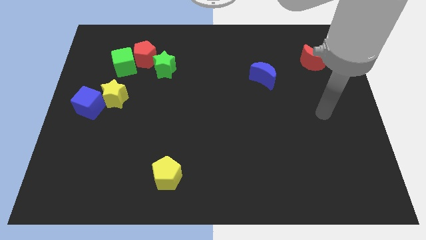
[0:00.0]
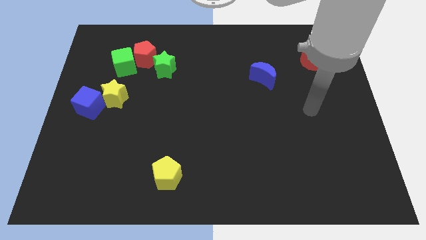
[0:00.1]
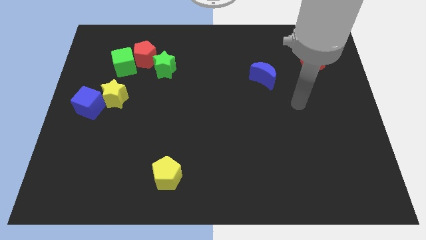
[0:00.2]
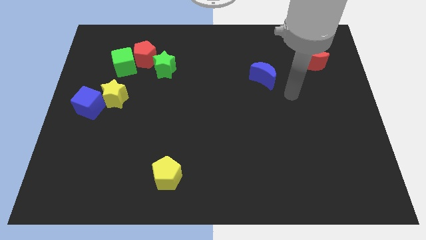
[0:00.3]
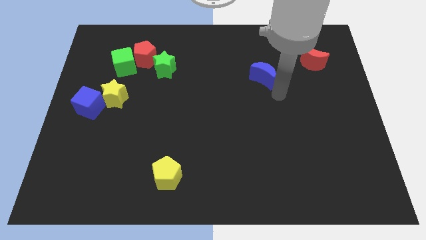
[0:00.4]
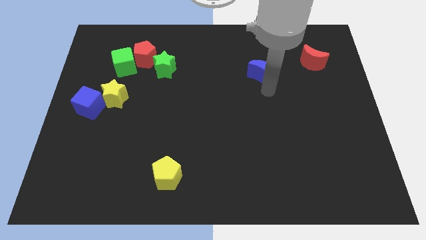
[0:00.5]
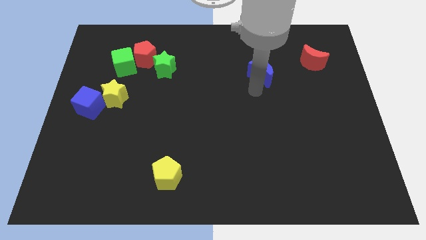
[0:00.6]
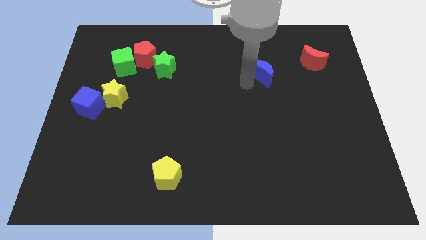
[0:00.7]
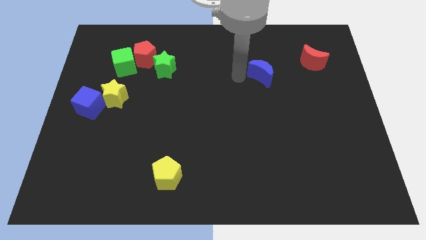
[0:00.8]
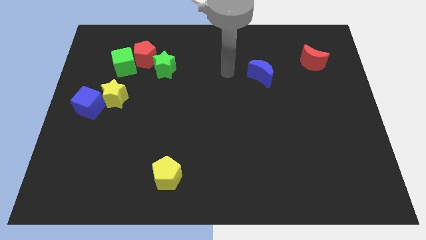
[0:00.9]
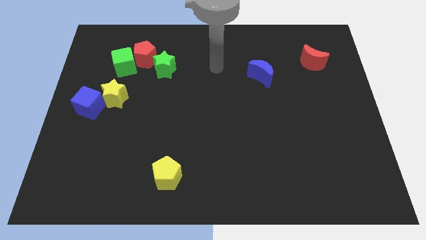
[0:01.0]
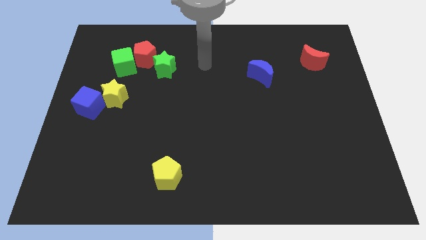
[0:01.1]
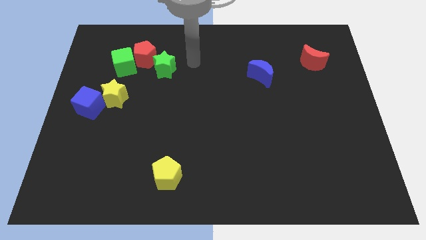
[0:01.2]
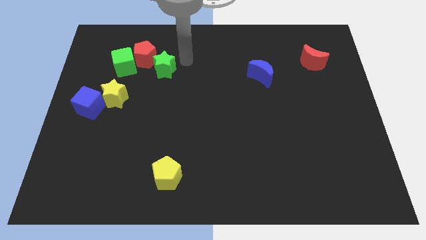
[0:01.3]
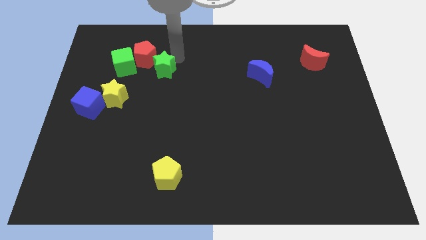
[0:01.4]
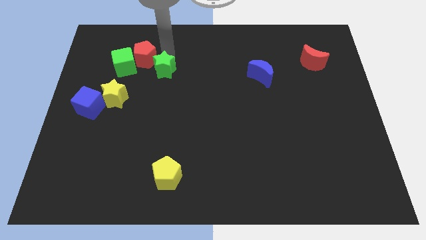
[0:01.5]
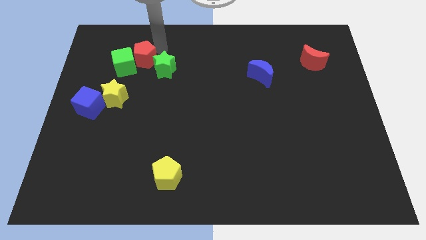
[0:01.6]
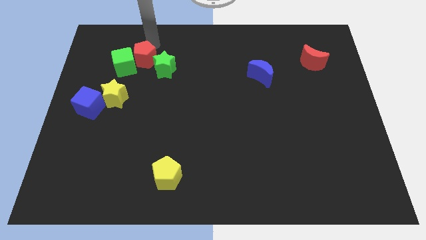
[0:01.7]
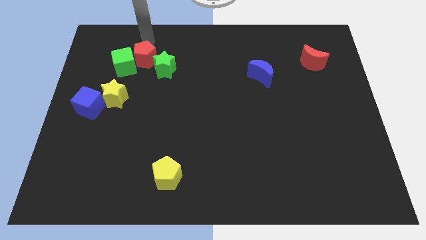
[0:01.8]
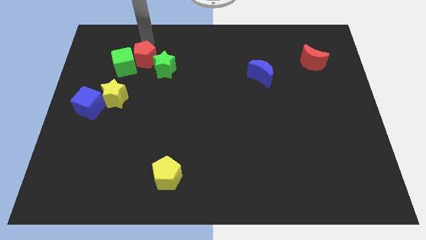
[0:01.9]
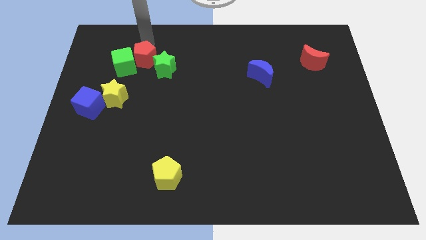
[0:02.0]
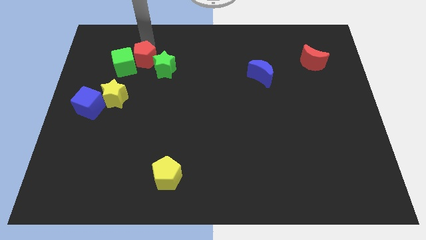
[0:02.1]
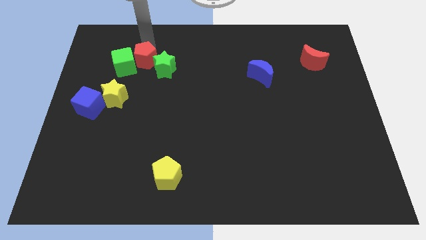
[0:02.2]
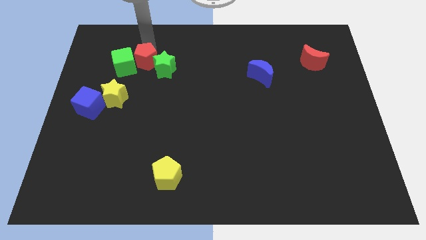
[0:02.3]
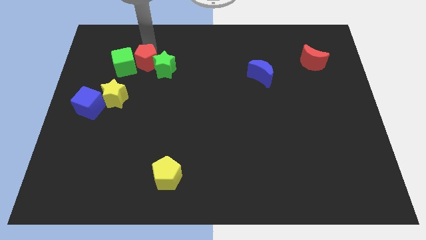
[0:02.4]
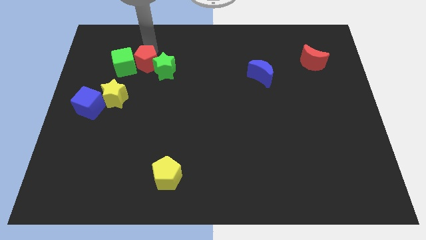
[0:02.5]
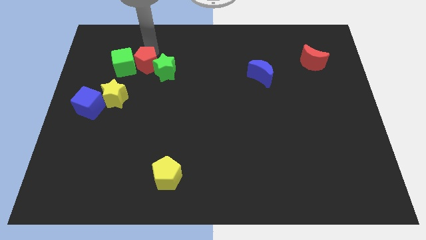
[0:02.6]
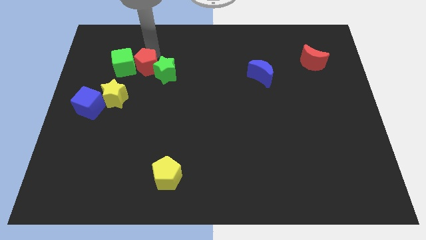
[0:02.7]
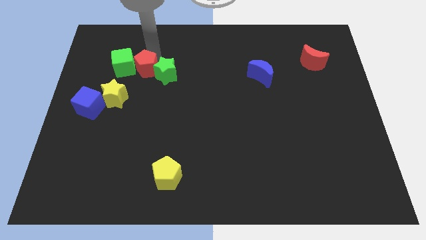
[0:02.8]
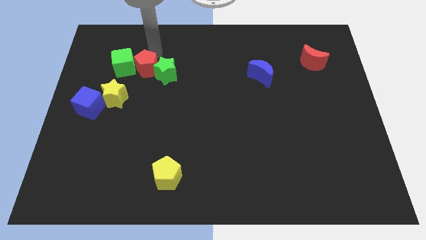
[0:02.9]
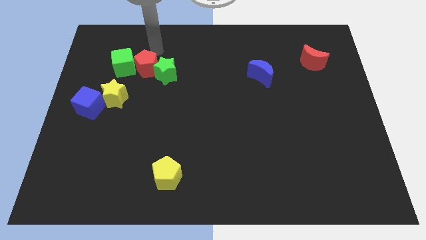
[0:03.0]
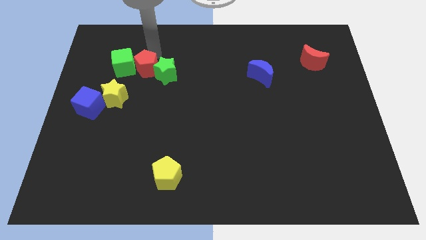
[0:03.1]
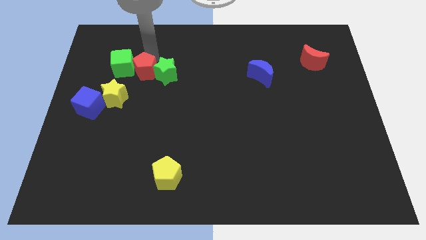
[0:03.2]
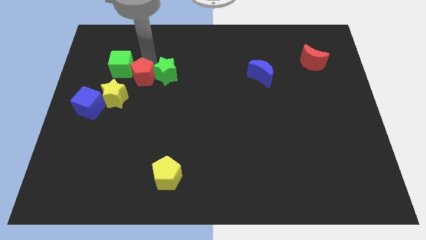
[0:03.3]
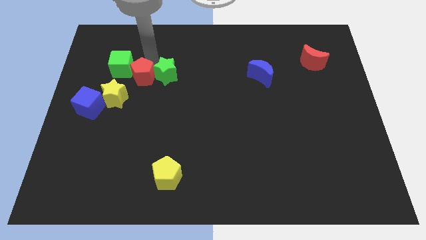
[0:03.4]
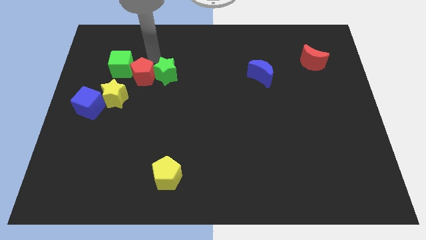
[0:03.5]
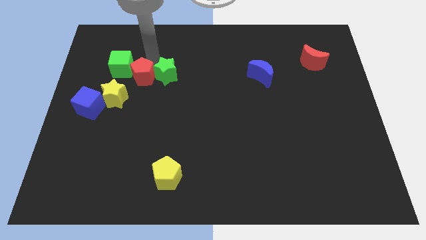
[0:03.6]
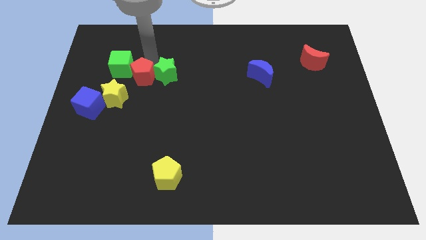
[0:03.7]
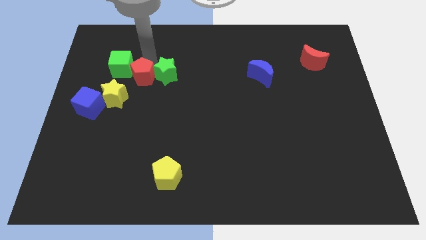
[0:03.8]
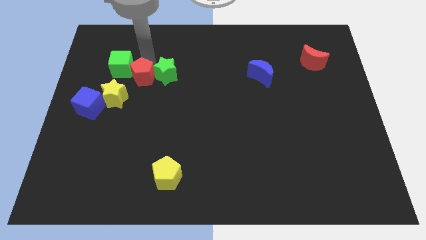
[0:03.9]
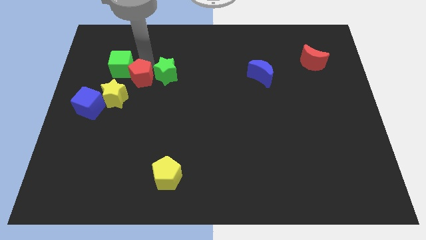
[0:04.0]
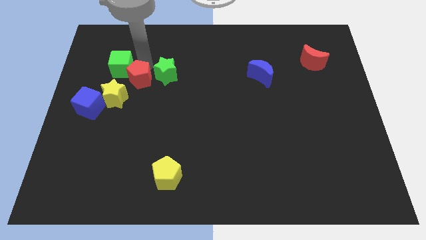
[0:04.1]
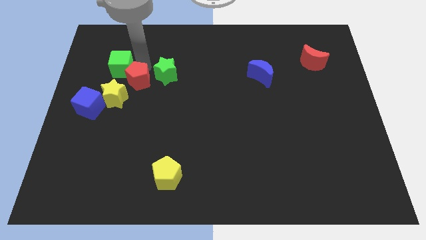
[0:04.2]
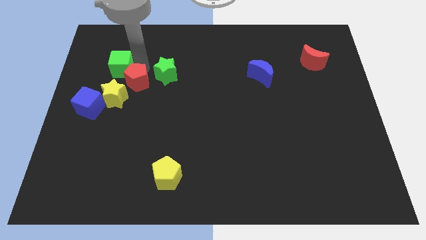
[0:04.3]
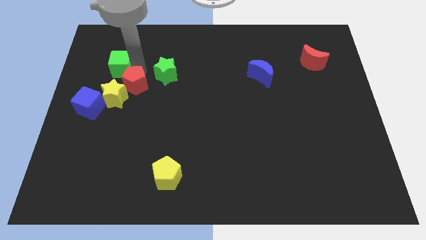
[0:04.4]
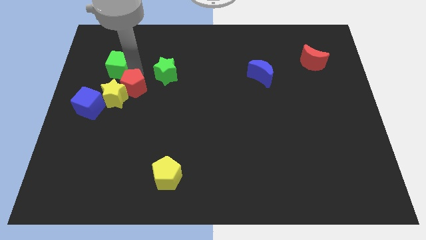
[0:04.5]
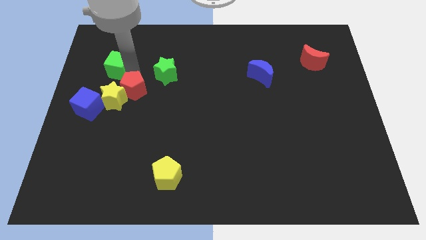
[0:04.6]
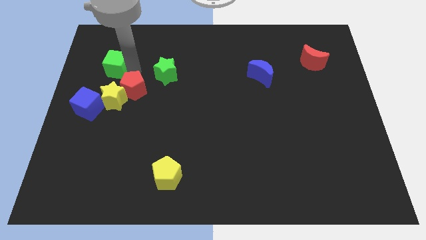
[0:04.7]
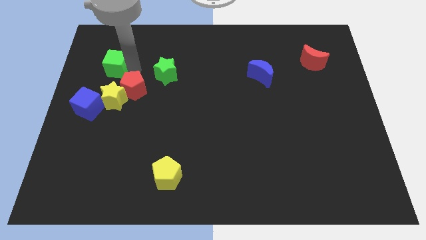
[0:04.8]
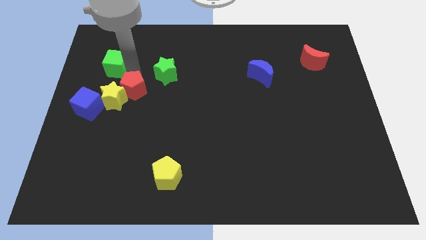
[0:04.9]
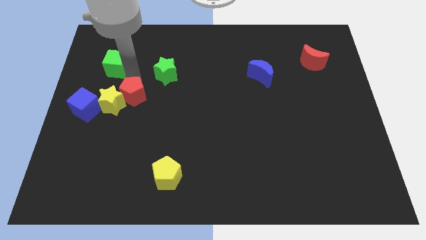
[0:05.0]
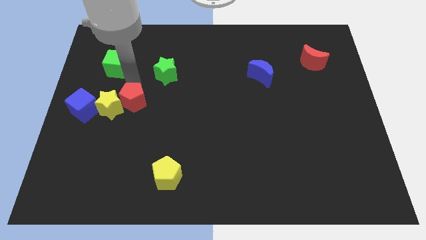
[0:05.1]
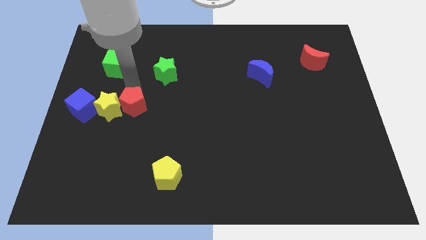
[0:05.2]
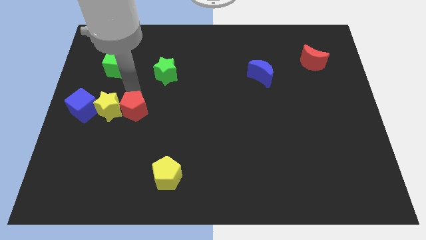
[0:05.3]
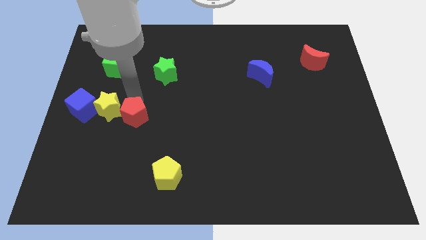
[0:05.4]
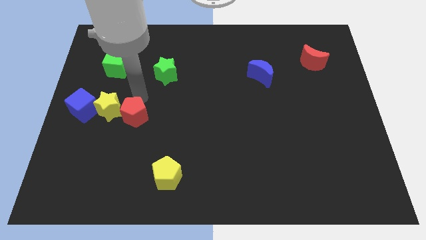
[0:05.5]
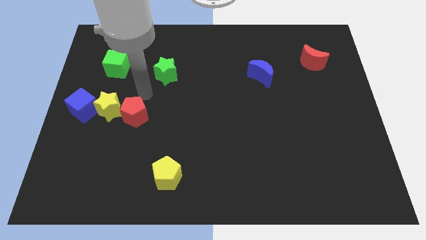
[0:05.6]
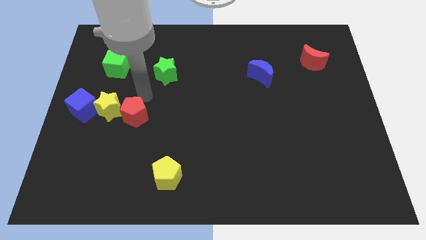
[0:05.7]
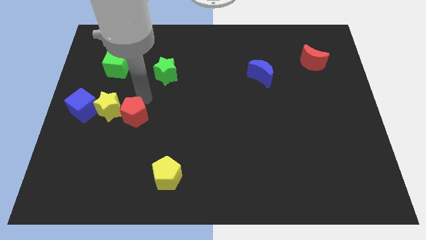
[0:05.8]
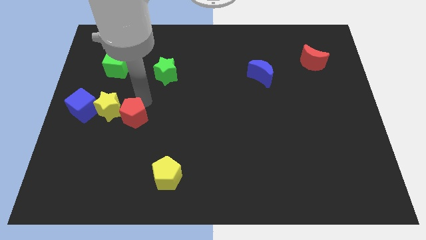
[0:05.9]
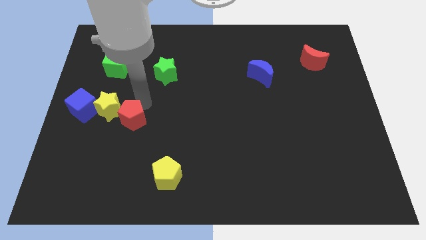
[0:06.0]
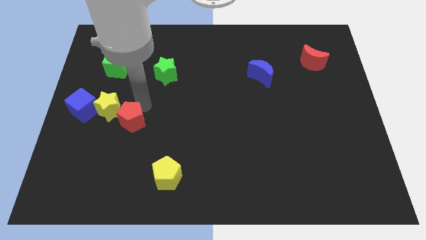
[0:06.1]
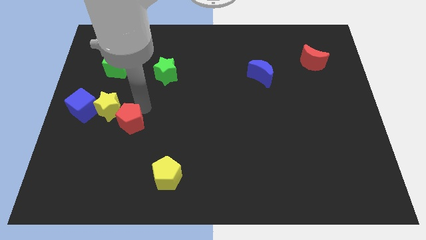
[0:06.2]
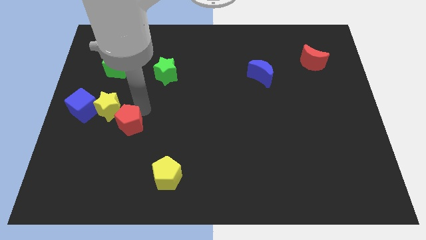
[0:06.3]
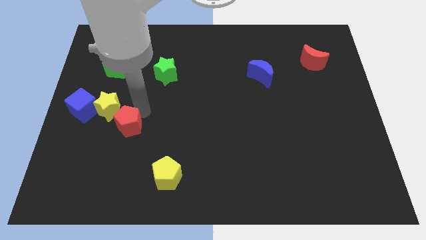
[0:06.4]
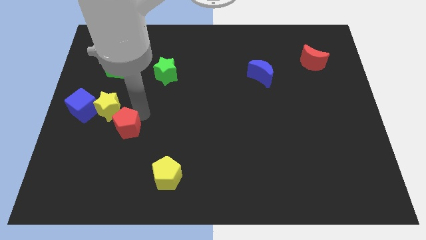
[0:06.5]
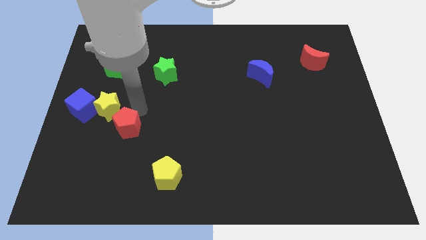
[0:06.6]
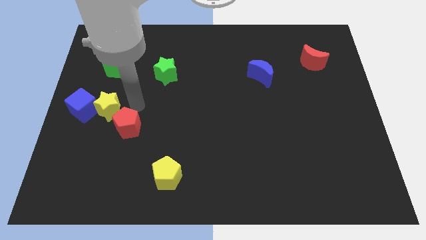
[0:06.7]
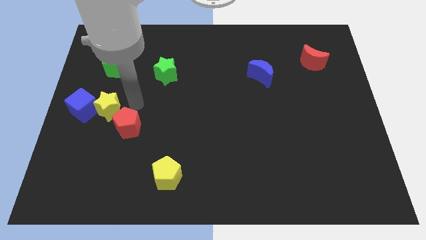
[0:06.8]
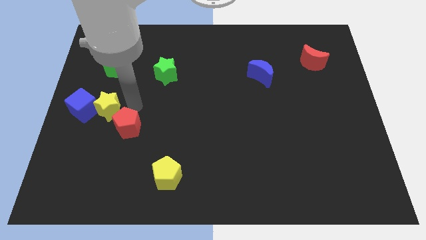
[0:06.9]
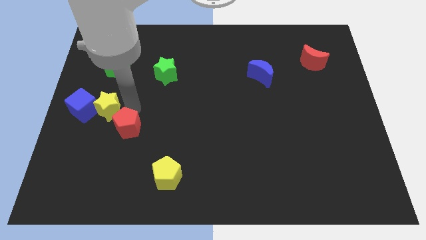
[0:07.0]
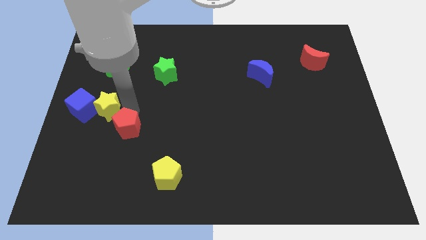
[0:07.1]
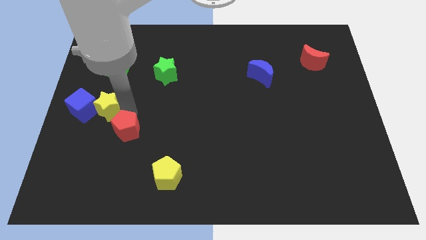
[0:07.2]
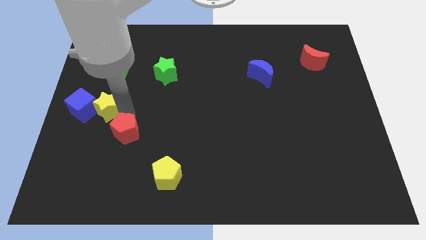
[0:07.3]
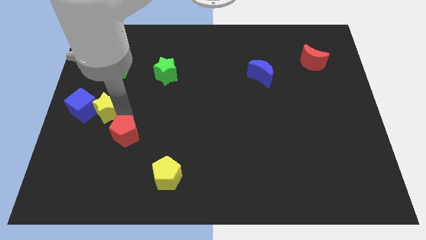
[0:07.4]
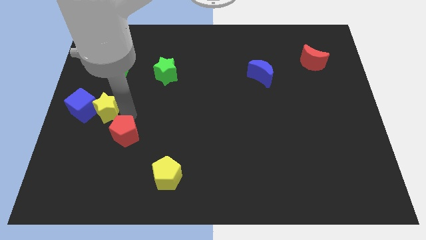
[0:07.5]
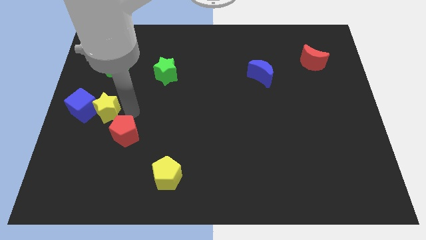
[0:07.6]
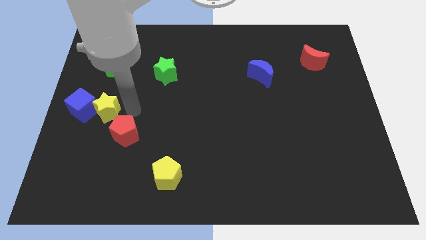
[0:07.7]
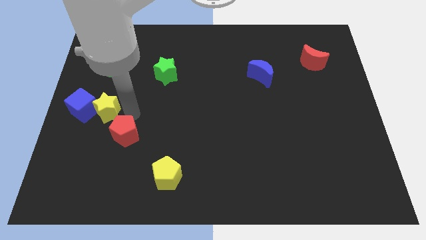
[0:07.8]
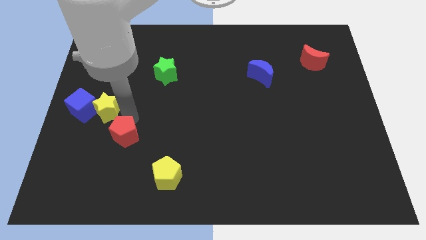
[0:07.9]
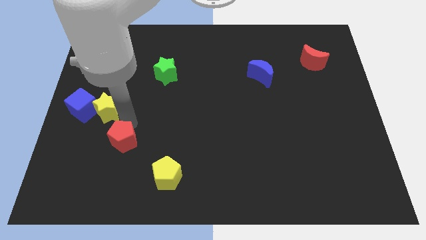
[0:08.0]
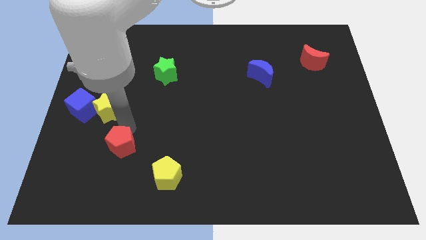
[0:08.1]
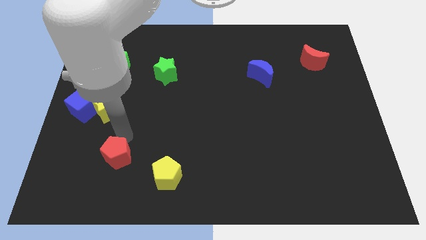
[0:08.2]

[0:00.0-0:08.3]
slide the red pentagon just left of the yellow pentagon
